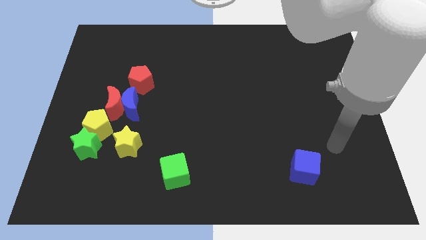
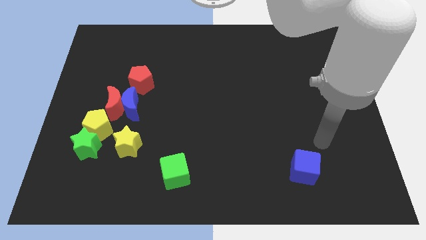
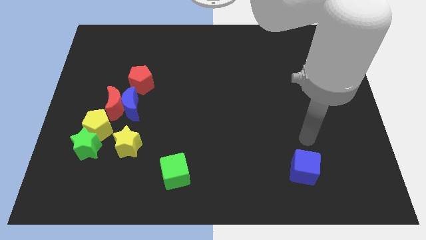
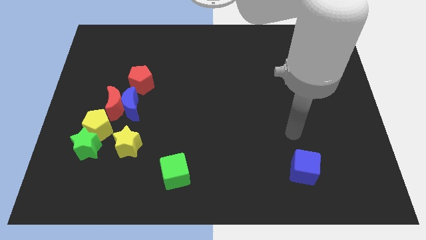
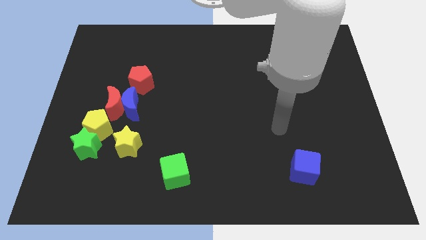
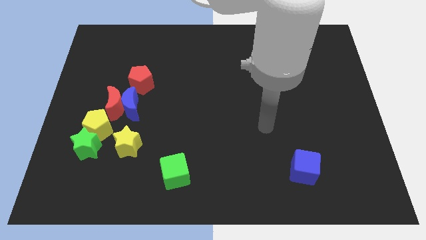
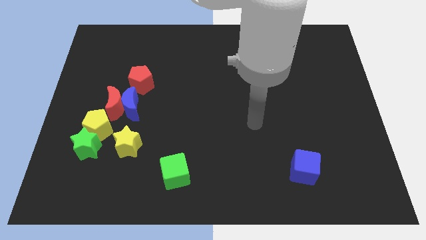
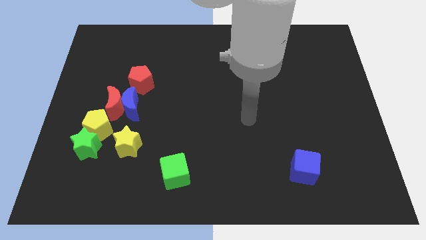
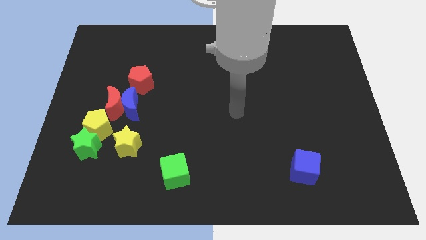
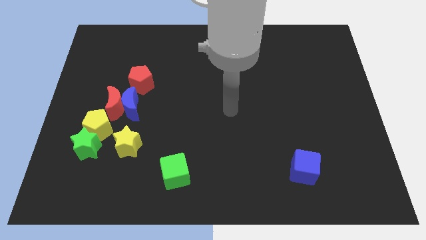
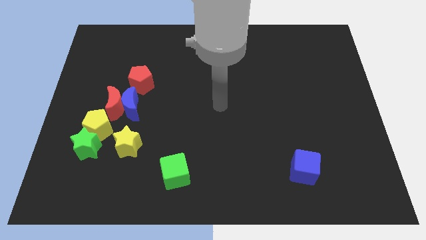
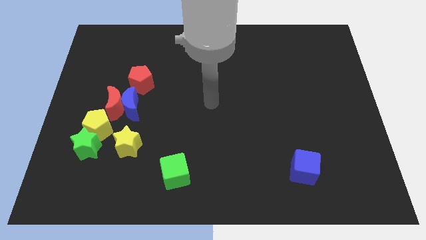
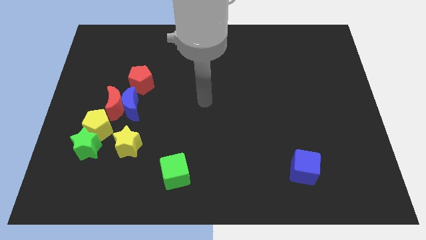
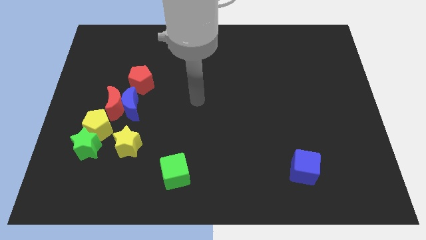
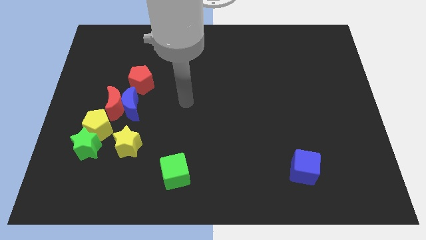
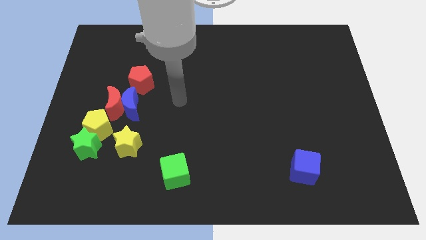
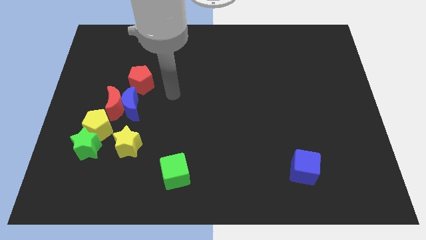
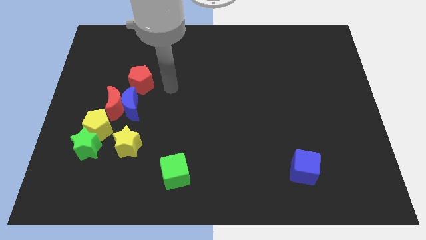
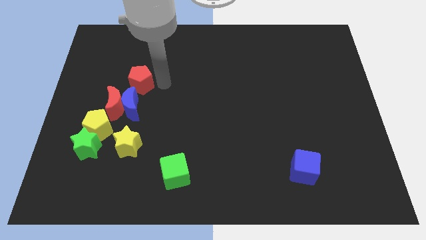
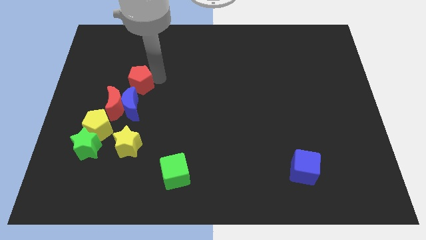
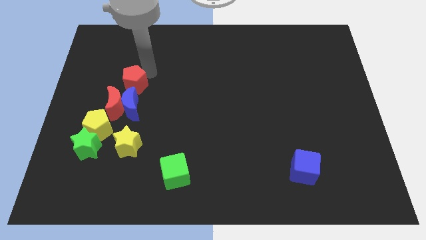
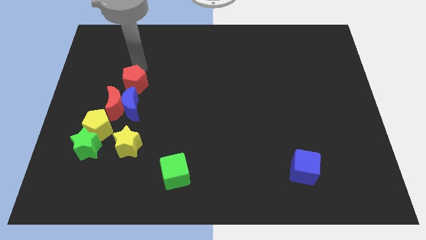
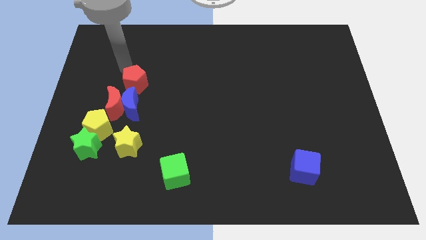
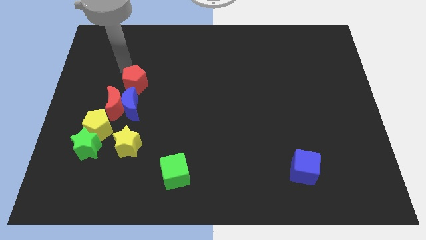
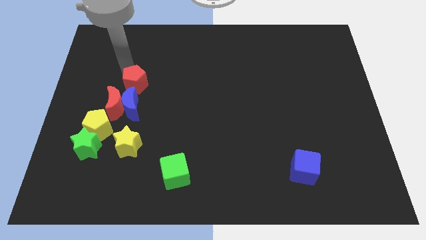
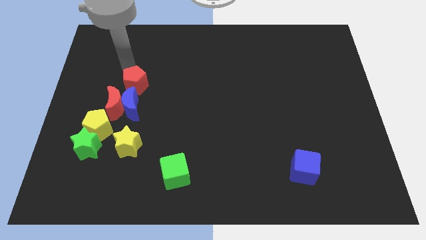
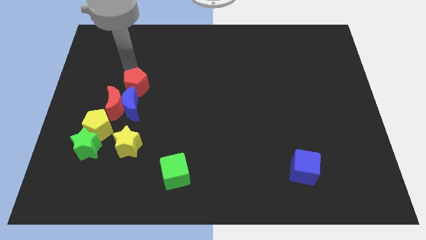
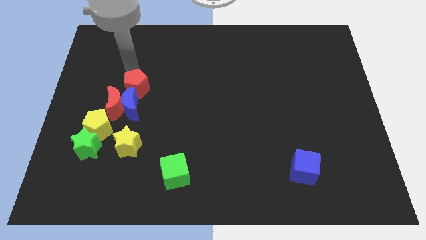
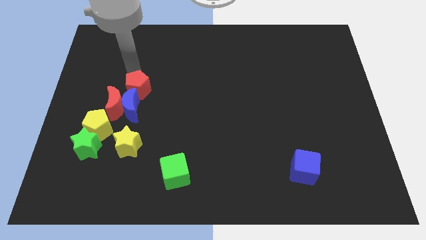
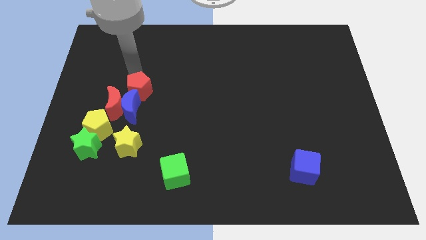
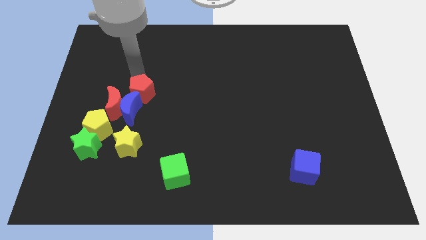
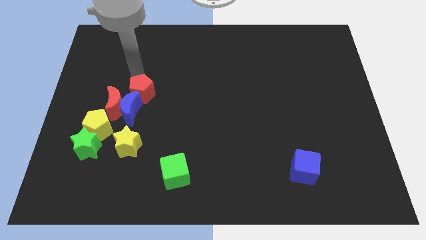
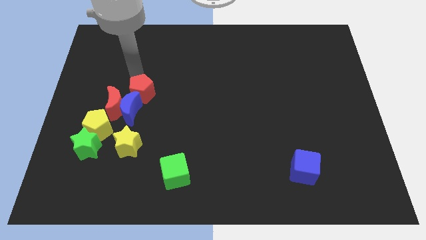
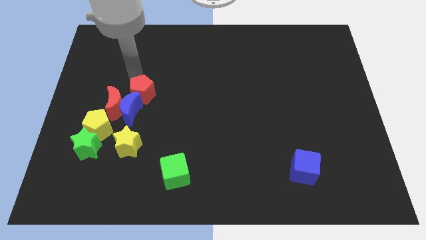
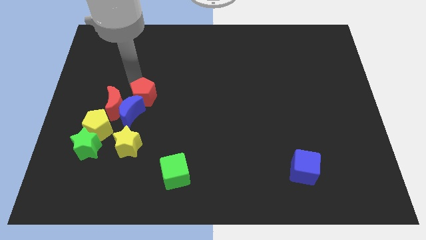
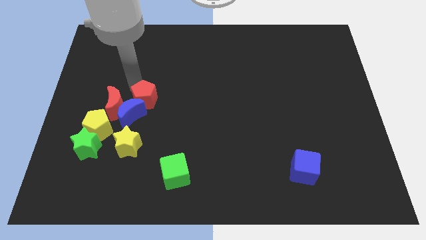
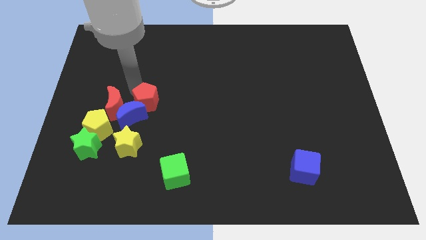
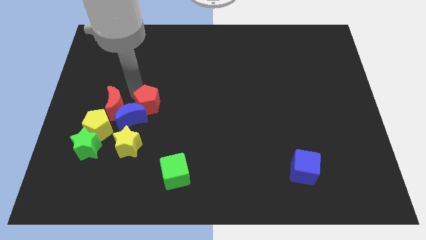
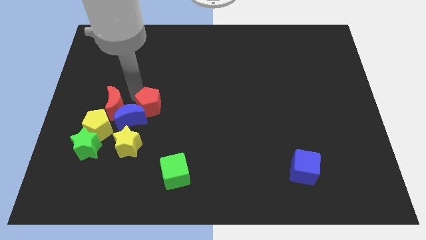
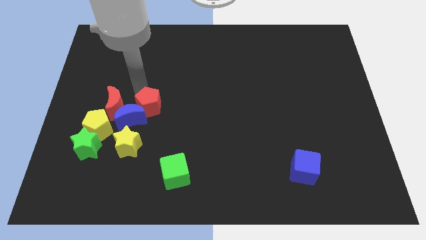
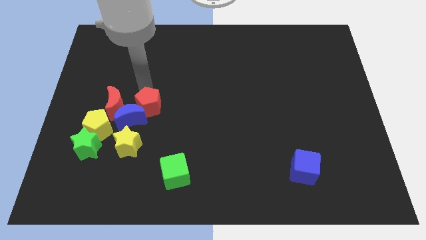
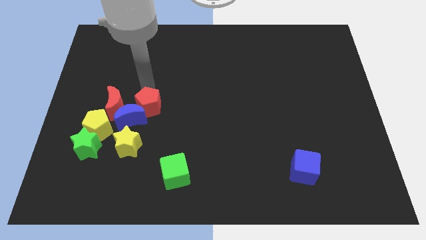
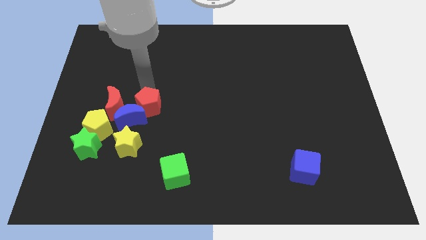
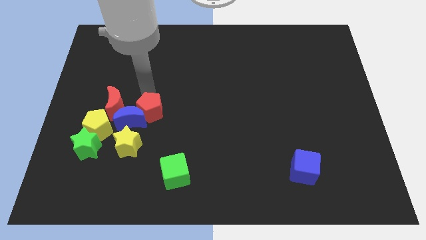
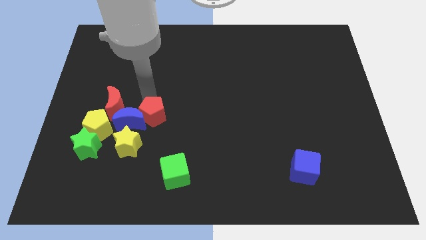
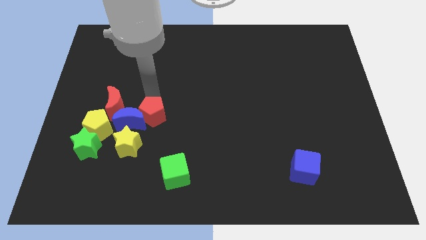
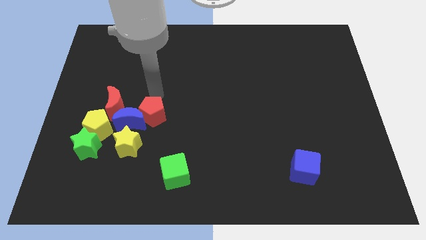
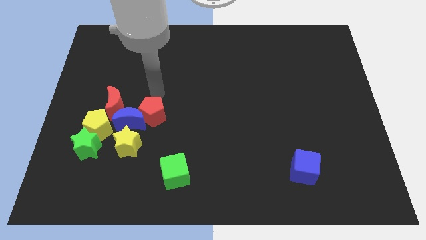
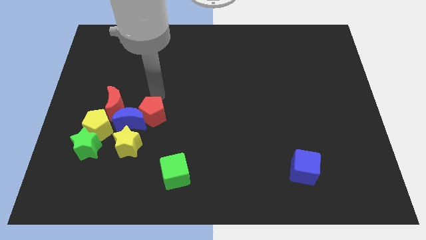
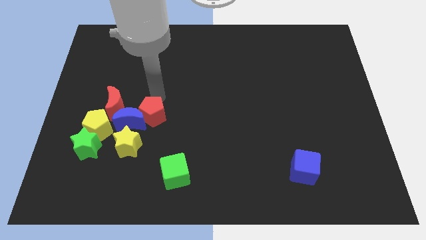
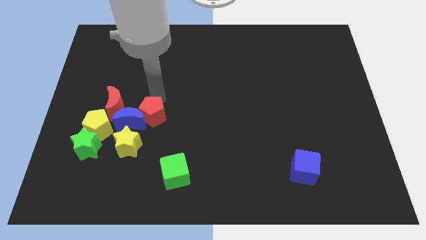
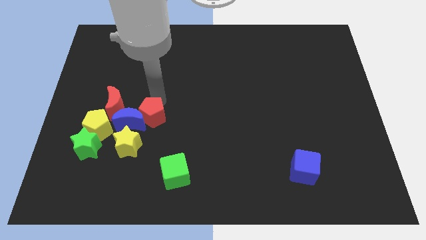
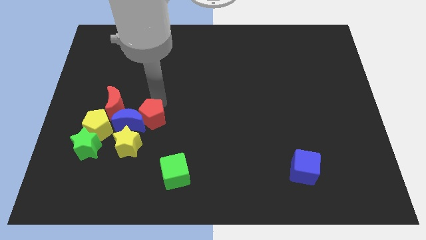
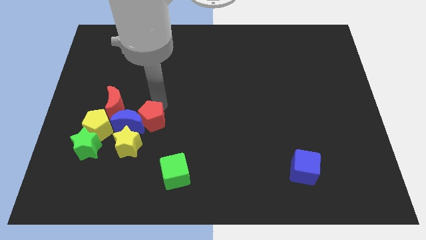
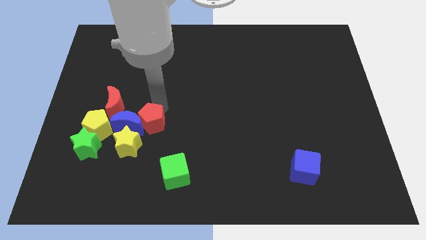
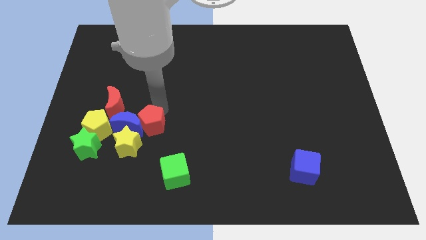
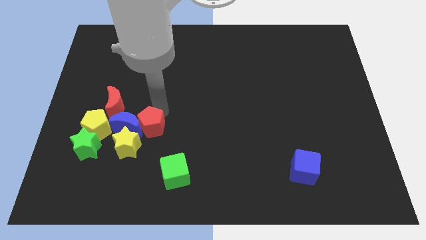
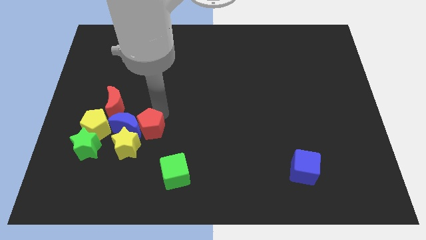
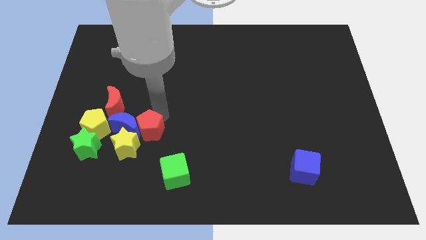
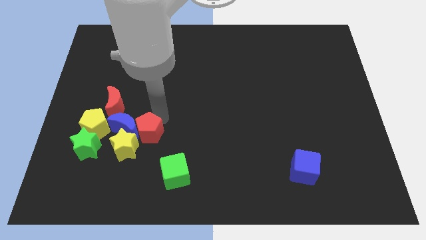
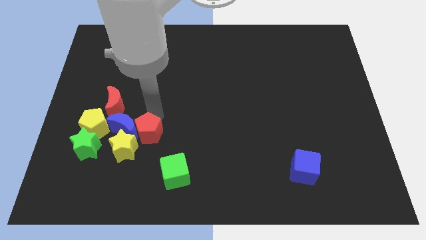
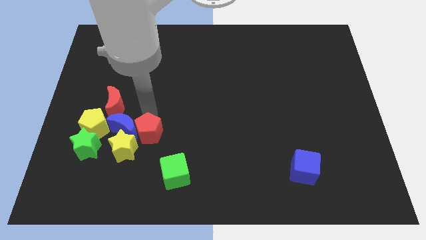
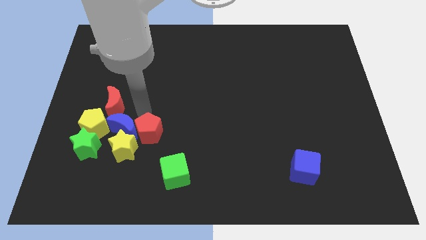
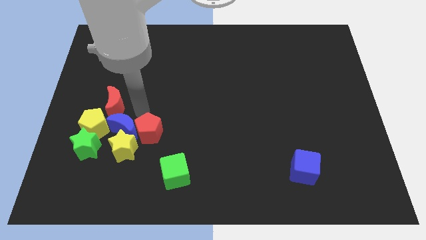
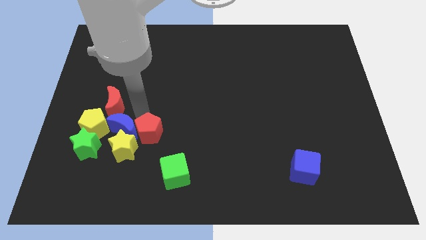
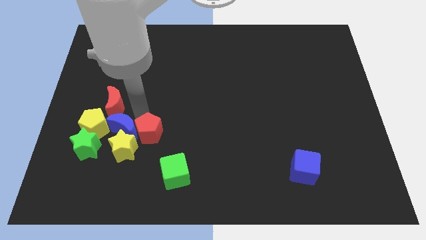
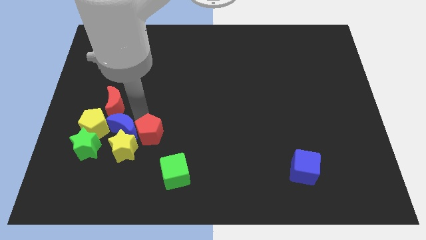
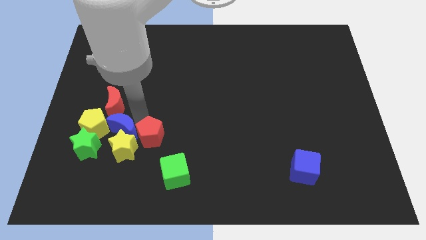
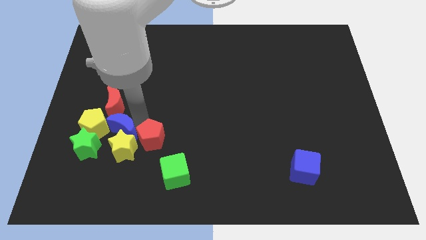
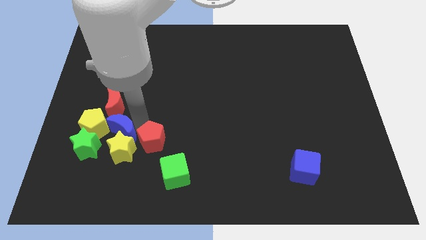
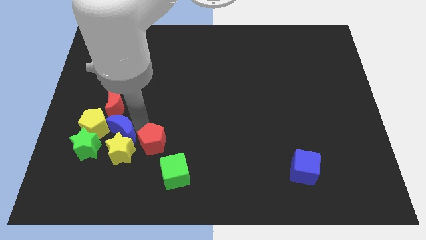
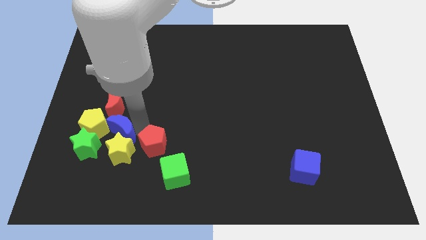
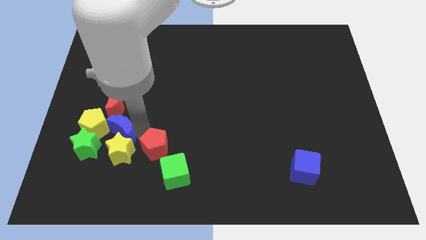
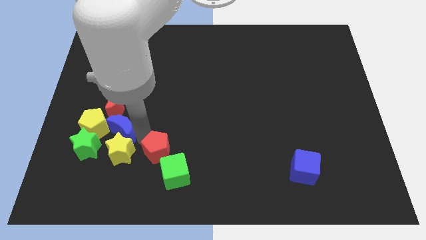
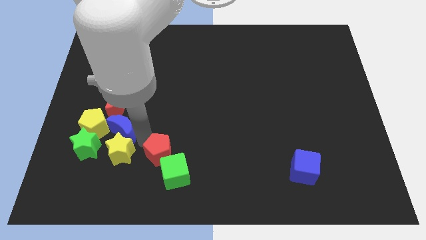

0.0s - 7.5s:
push the red pentagon close to the green cube

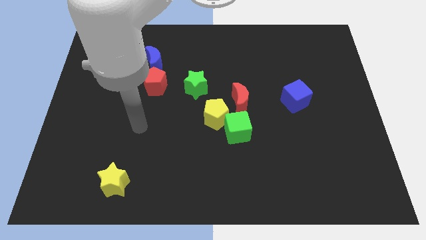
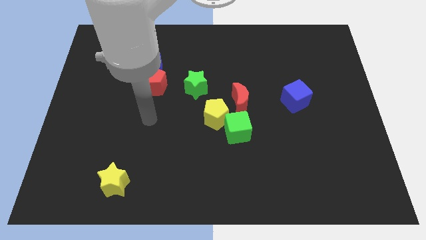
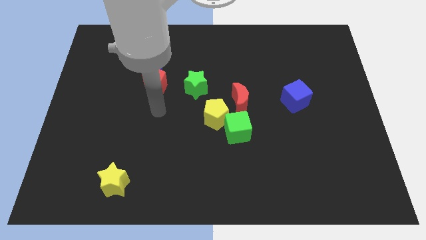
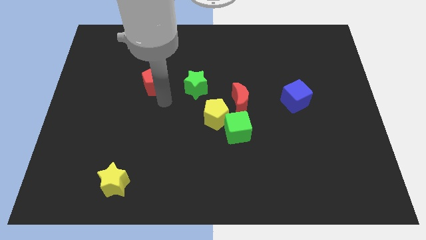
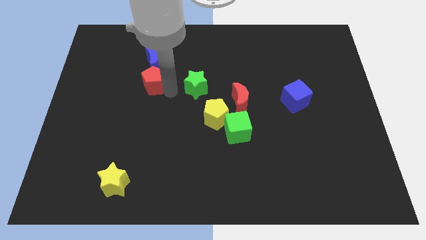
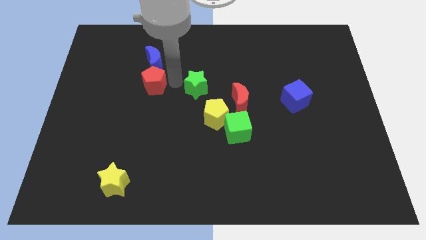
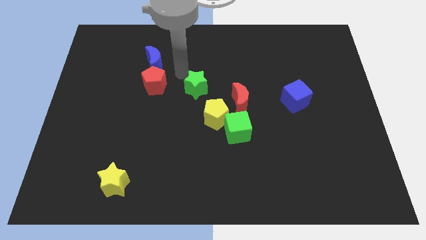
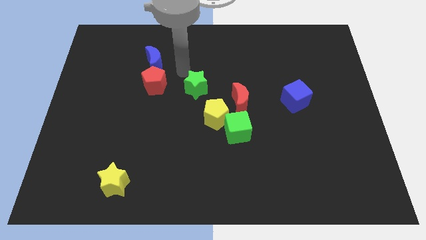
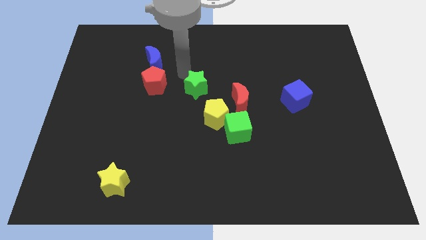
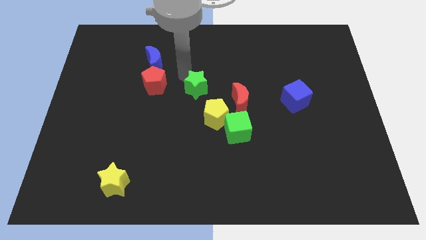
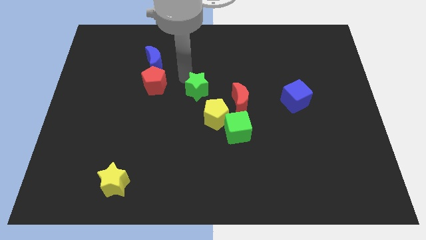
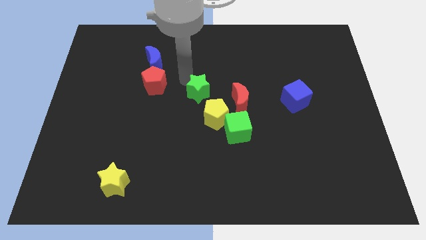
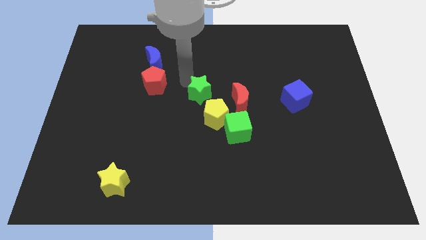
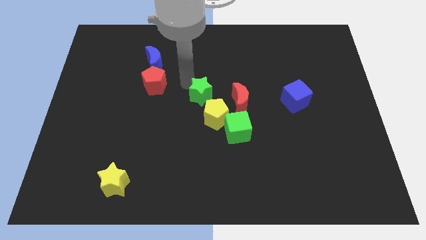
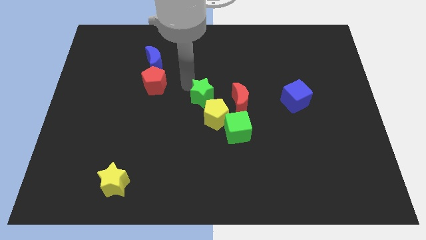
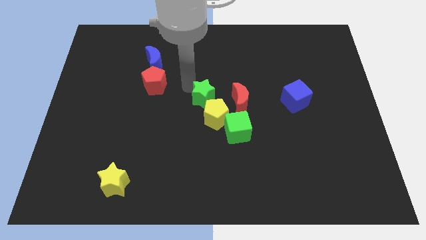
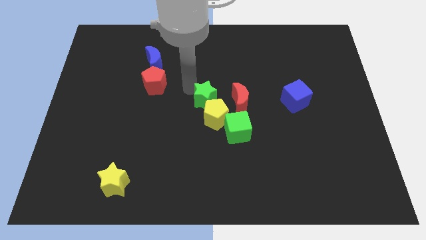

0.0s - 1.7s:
put the green star towards the yellow pentagon
